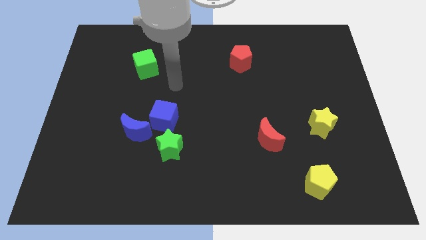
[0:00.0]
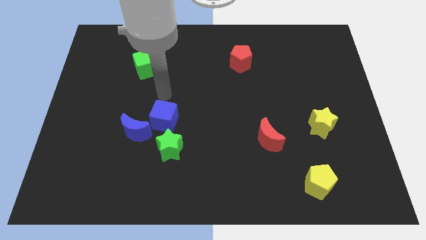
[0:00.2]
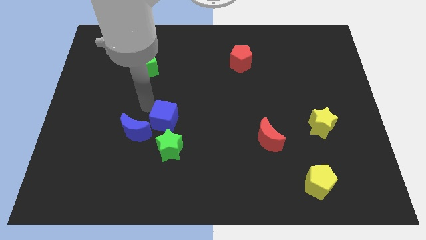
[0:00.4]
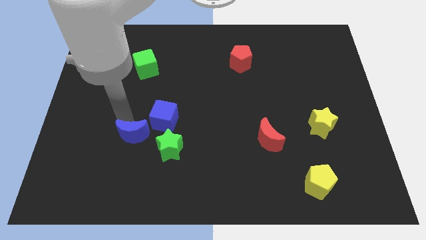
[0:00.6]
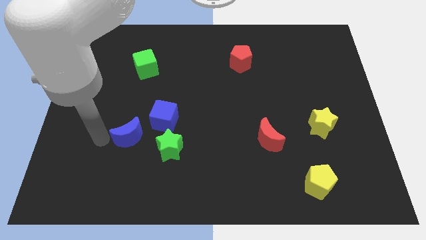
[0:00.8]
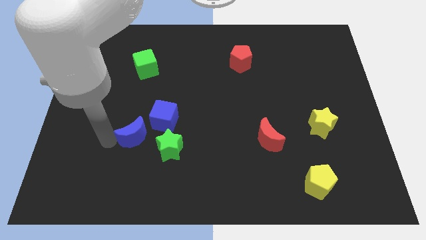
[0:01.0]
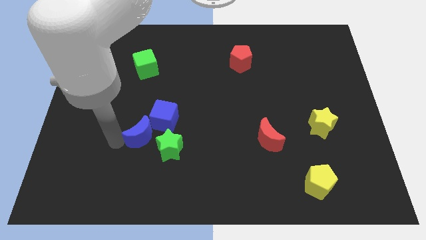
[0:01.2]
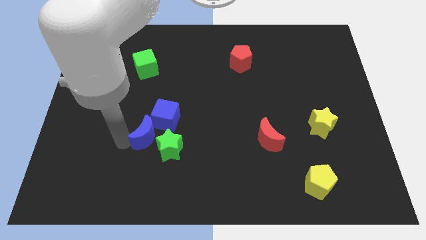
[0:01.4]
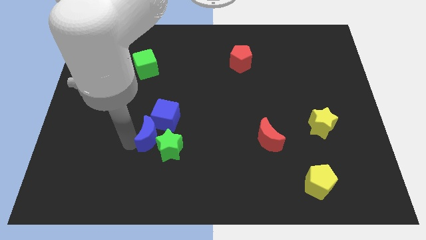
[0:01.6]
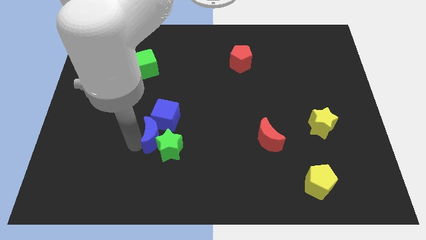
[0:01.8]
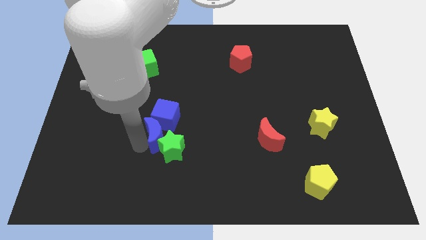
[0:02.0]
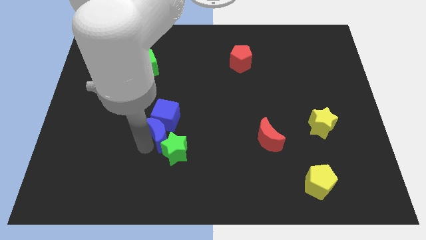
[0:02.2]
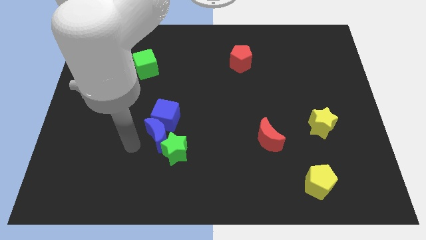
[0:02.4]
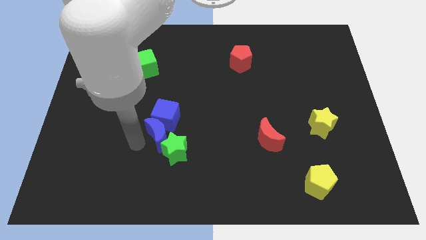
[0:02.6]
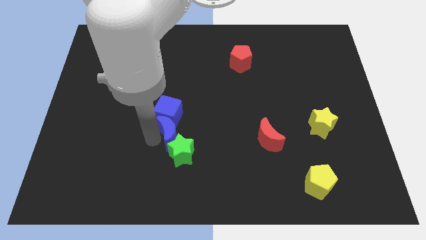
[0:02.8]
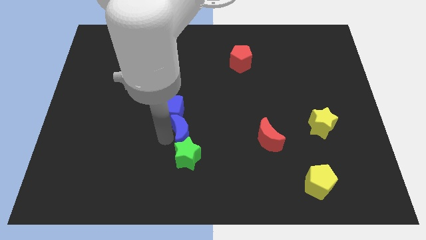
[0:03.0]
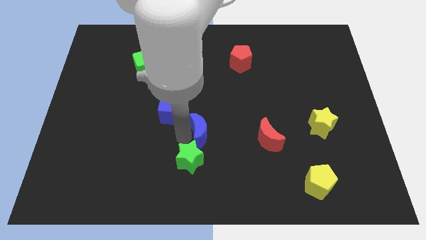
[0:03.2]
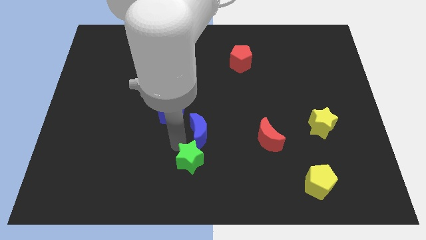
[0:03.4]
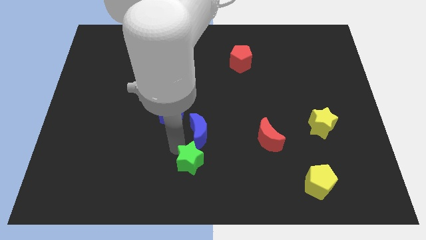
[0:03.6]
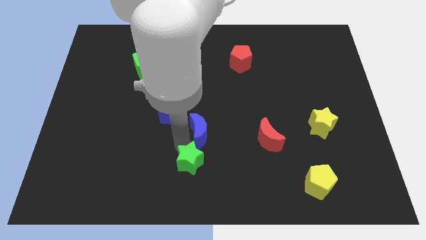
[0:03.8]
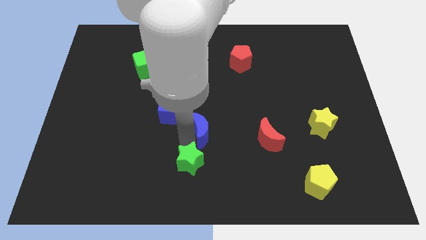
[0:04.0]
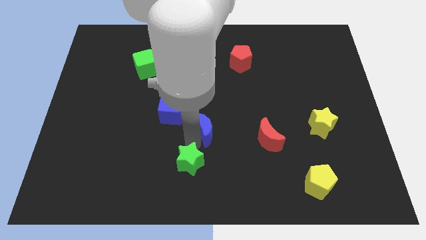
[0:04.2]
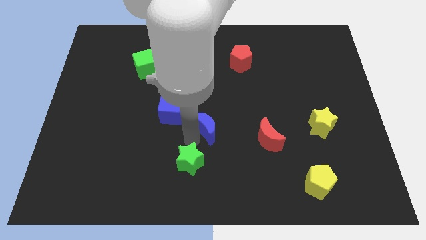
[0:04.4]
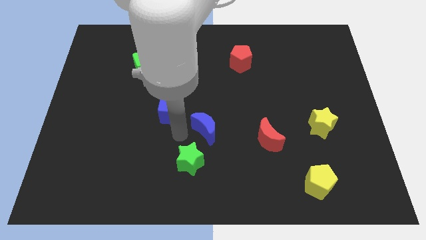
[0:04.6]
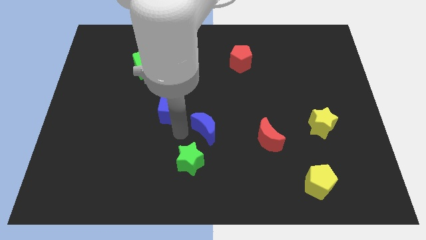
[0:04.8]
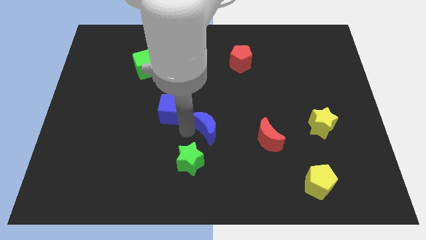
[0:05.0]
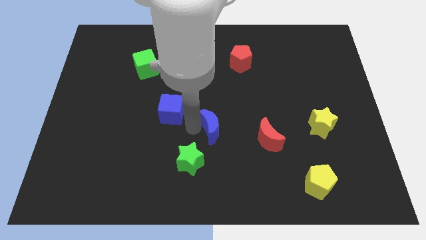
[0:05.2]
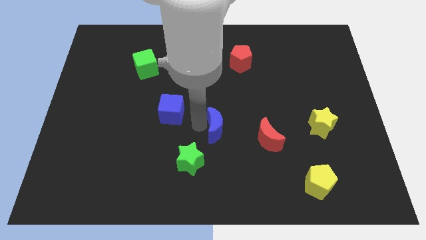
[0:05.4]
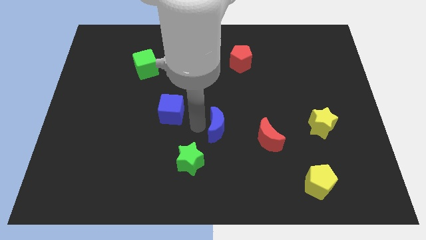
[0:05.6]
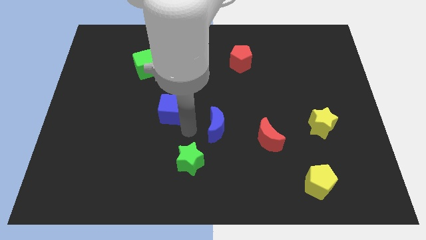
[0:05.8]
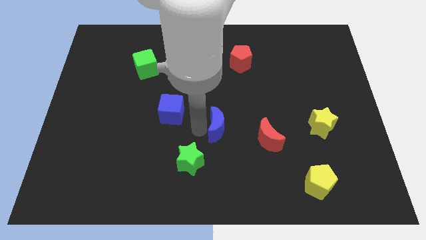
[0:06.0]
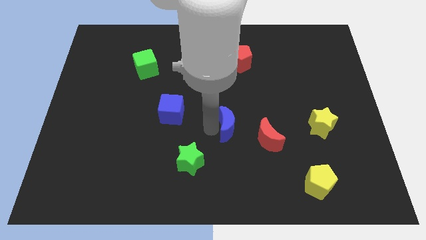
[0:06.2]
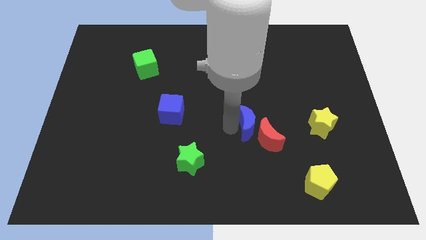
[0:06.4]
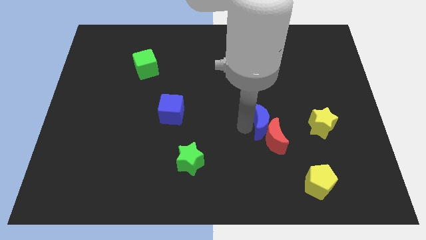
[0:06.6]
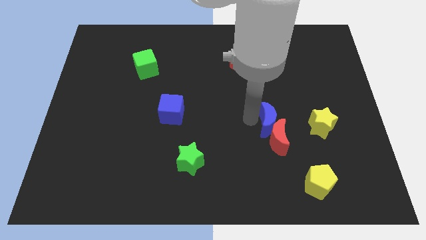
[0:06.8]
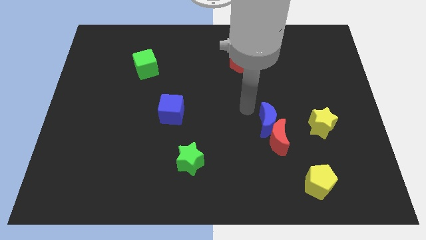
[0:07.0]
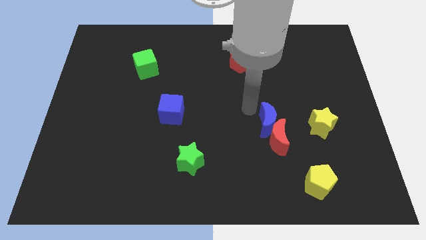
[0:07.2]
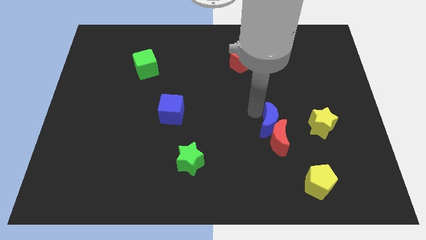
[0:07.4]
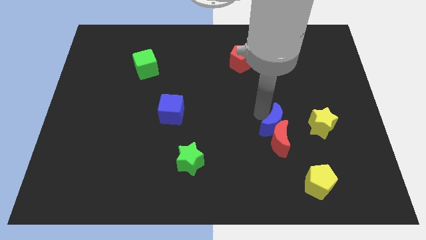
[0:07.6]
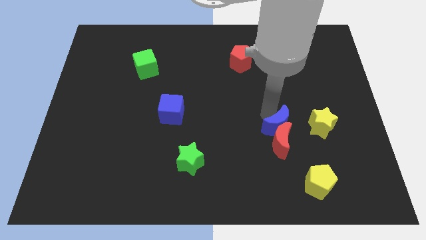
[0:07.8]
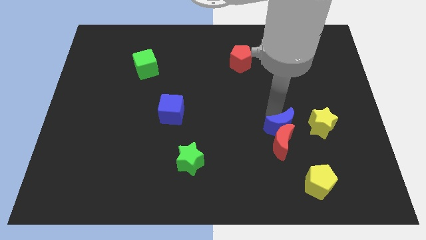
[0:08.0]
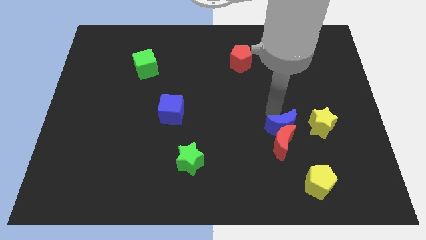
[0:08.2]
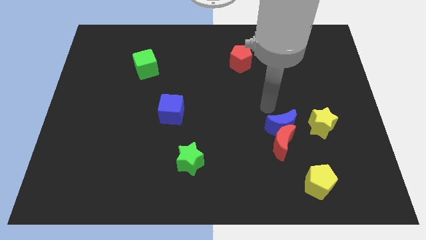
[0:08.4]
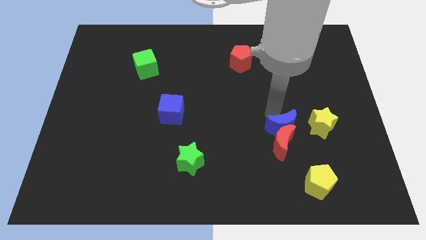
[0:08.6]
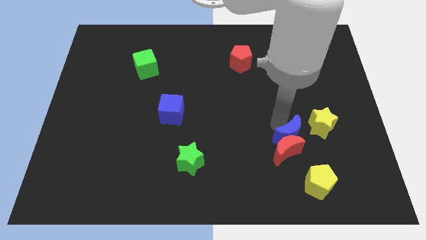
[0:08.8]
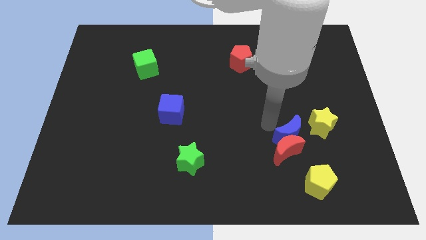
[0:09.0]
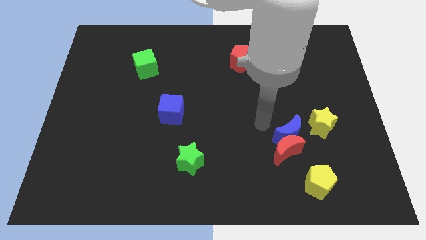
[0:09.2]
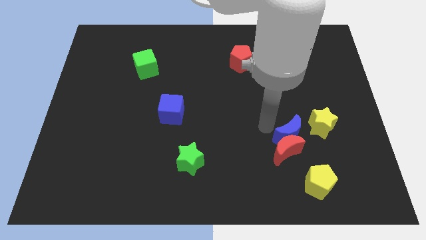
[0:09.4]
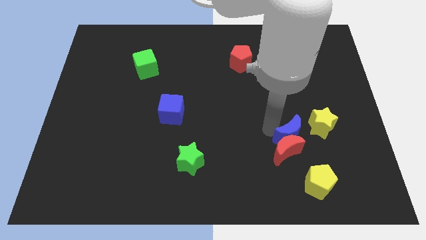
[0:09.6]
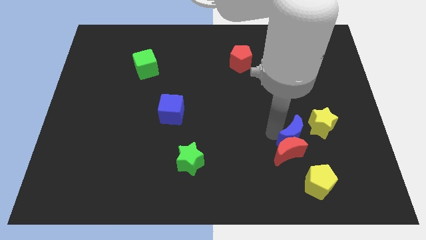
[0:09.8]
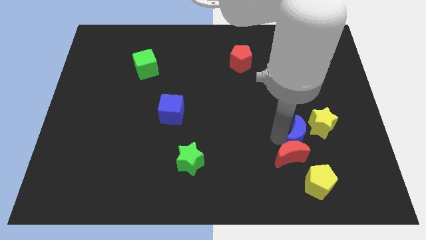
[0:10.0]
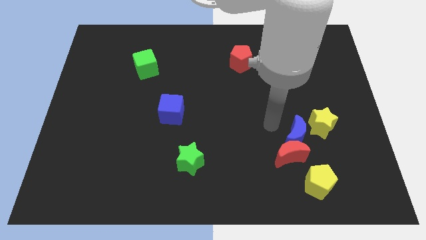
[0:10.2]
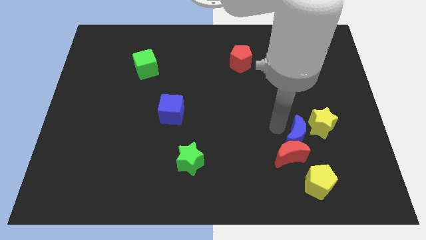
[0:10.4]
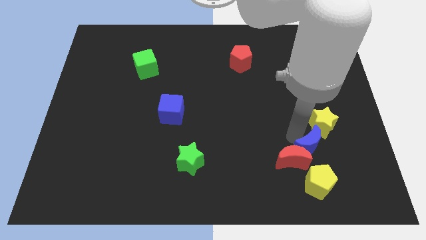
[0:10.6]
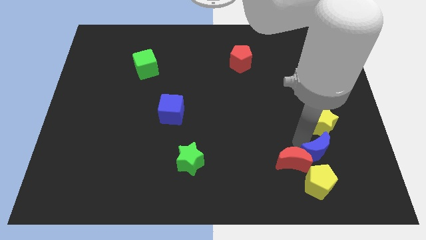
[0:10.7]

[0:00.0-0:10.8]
put the blue moon to the top right of the yellow pentagon

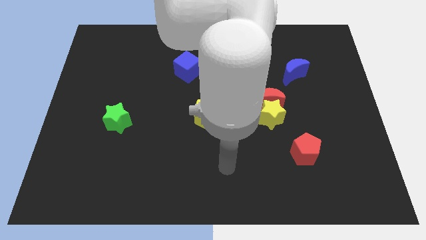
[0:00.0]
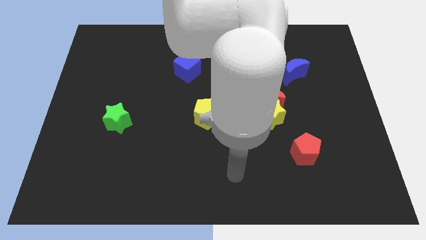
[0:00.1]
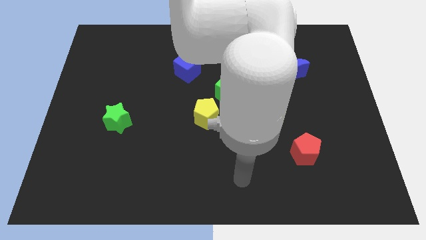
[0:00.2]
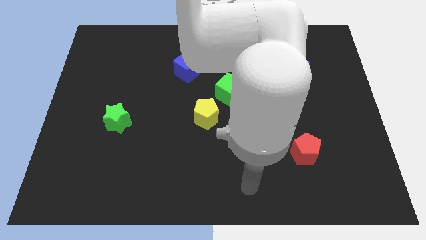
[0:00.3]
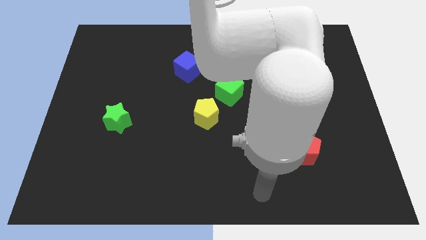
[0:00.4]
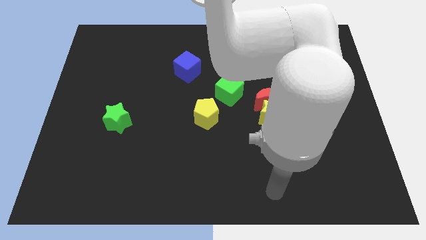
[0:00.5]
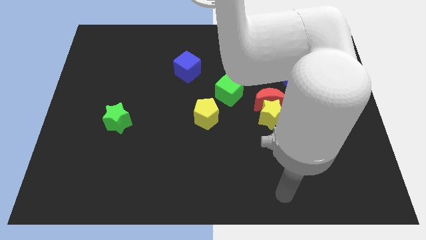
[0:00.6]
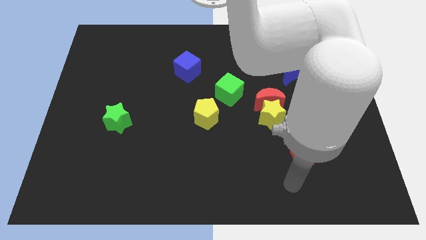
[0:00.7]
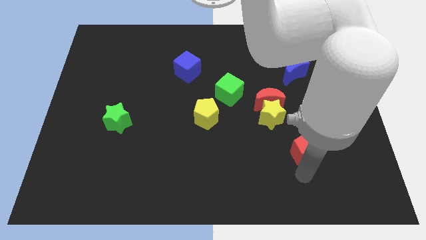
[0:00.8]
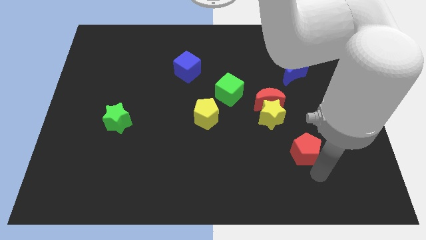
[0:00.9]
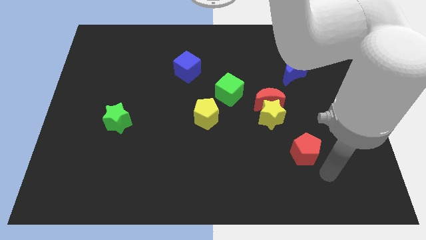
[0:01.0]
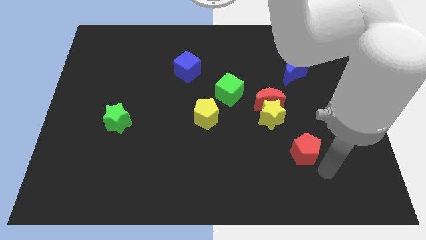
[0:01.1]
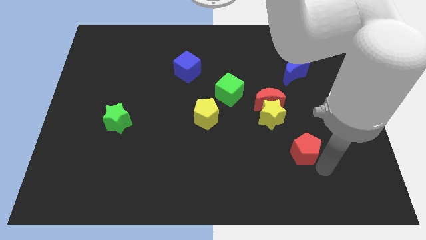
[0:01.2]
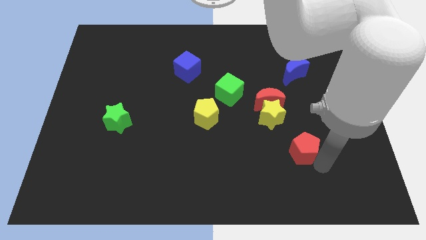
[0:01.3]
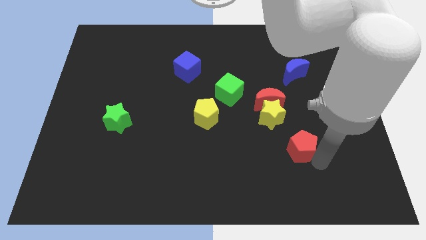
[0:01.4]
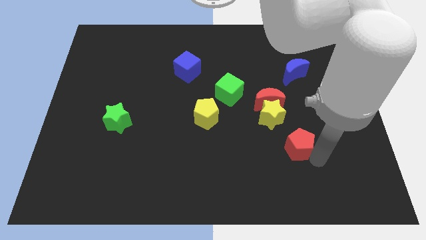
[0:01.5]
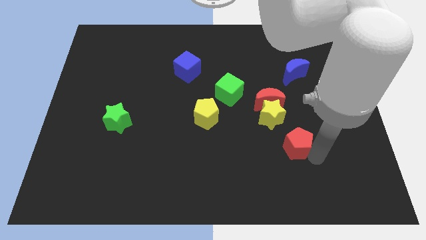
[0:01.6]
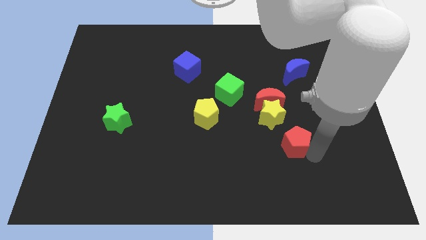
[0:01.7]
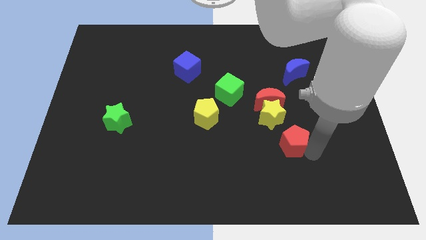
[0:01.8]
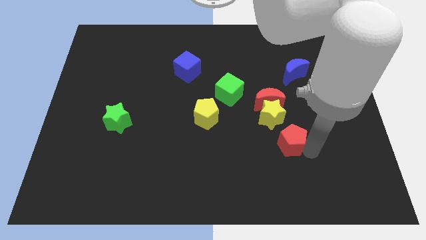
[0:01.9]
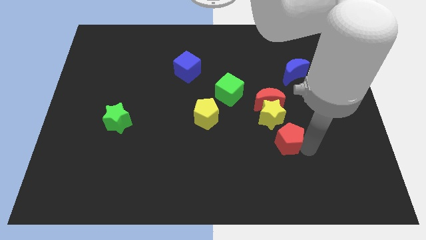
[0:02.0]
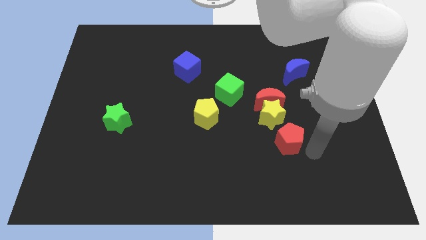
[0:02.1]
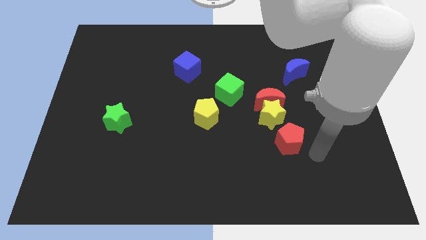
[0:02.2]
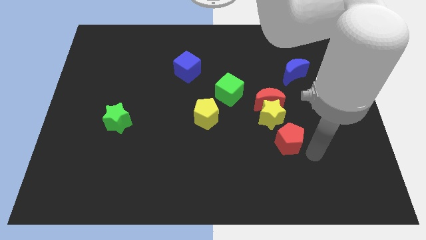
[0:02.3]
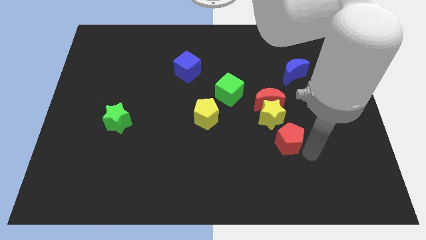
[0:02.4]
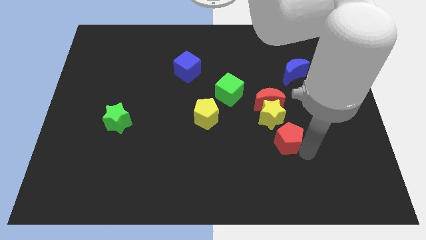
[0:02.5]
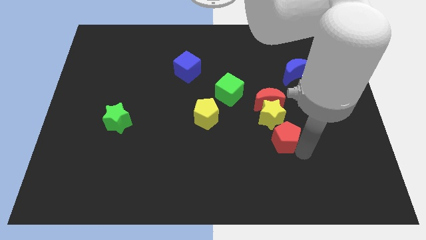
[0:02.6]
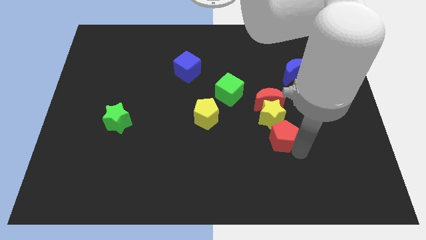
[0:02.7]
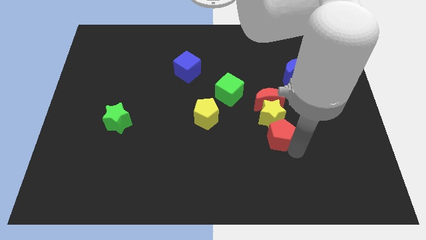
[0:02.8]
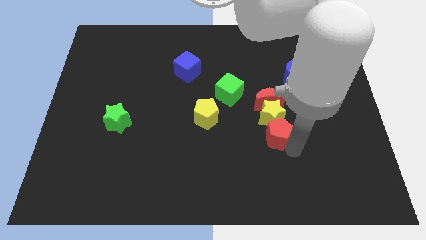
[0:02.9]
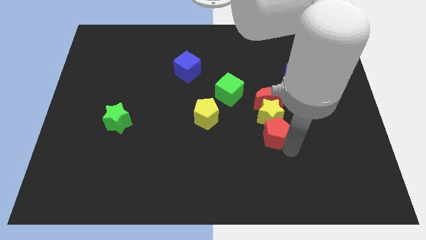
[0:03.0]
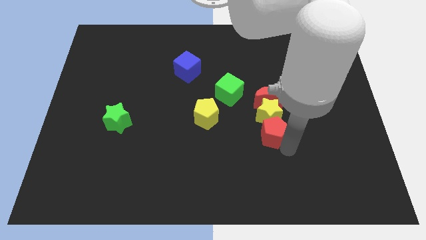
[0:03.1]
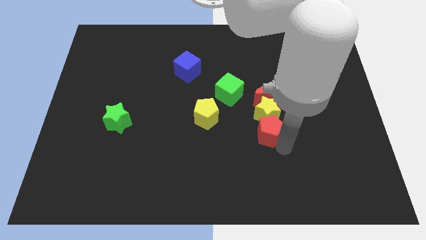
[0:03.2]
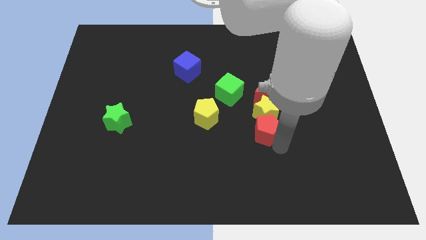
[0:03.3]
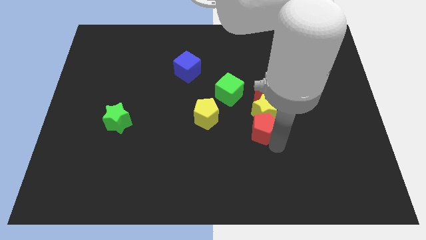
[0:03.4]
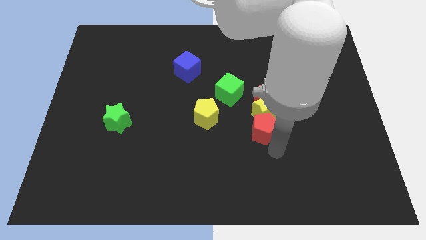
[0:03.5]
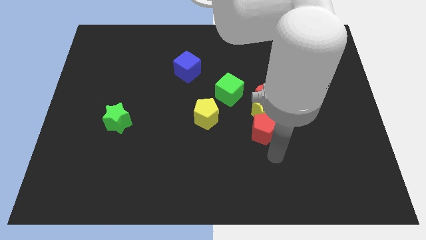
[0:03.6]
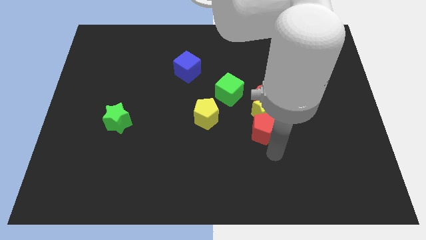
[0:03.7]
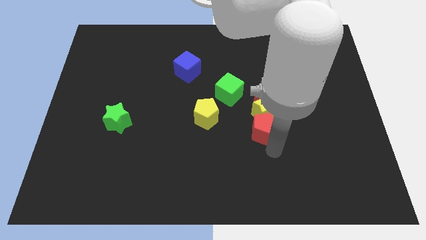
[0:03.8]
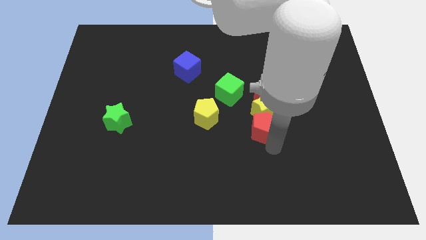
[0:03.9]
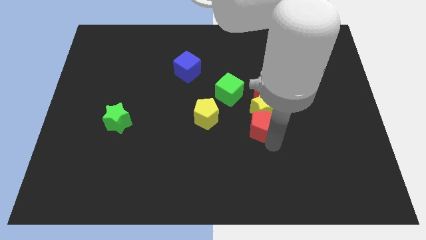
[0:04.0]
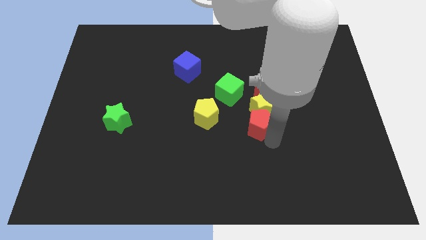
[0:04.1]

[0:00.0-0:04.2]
slide the red pentagon to the bottom right side of the green cube
